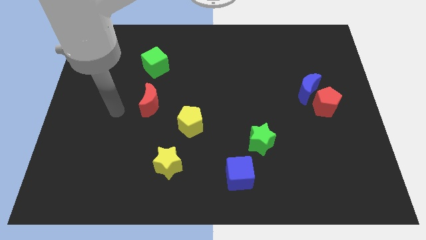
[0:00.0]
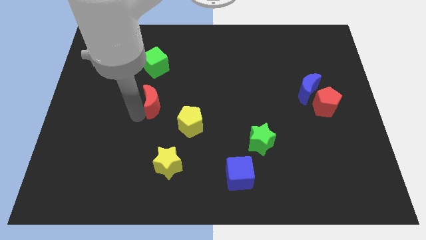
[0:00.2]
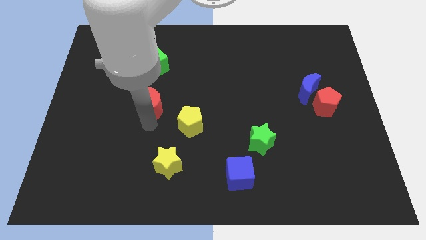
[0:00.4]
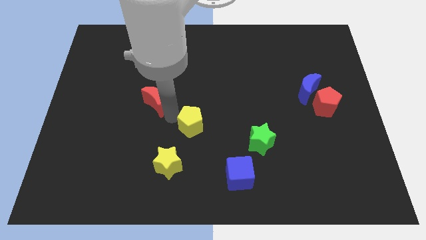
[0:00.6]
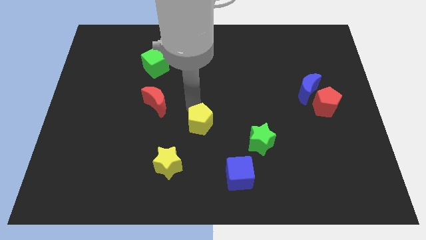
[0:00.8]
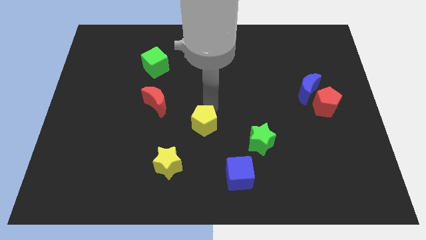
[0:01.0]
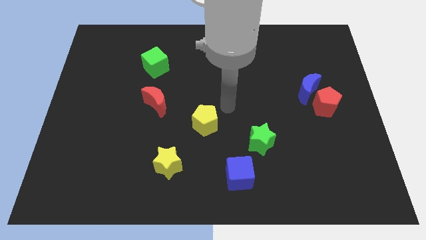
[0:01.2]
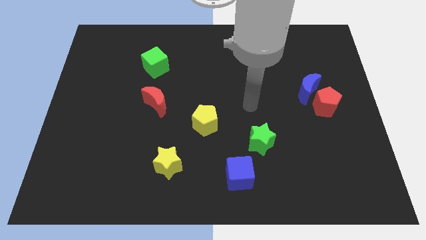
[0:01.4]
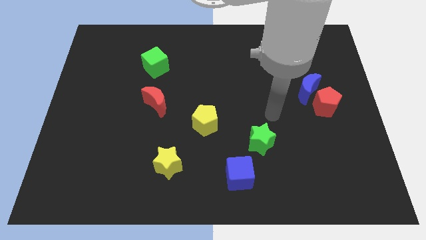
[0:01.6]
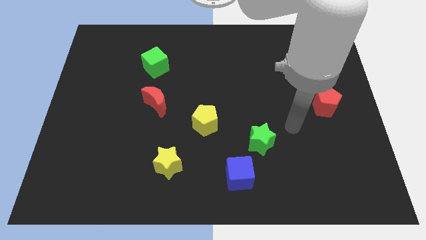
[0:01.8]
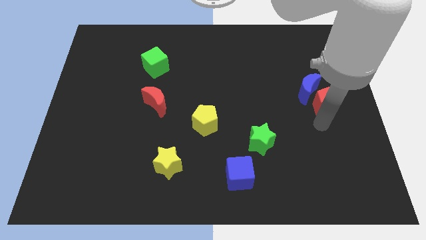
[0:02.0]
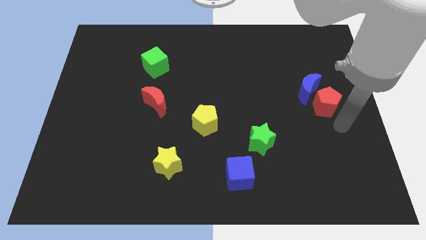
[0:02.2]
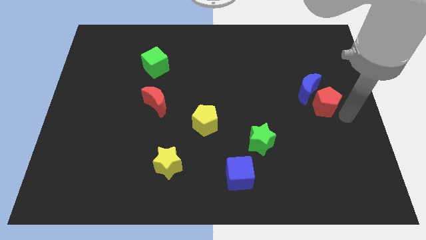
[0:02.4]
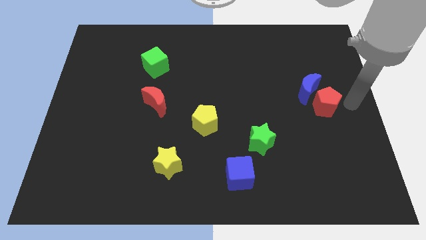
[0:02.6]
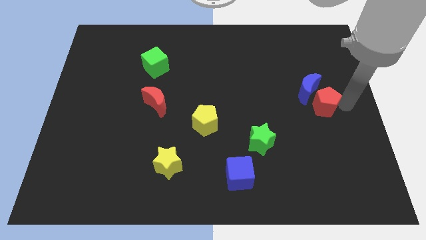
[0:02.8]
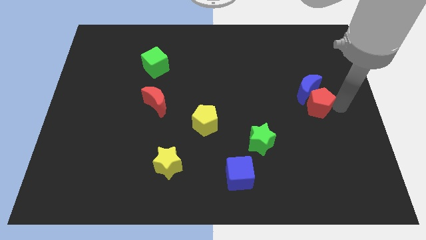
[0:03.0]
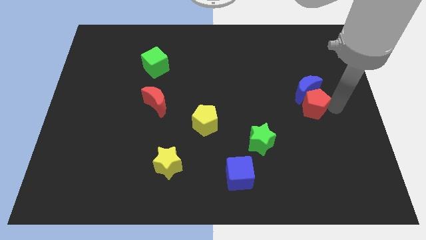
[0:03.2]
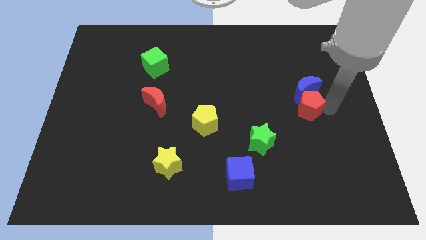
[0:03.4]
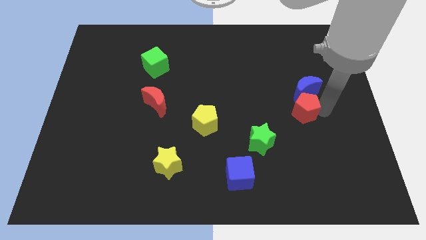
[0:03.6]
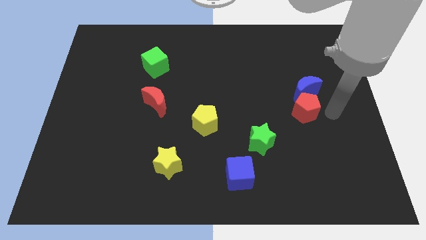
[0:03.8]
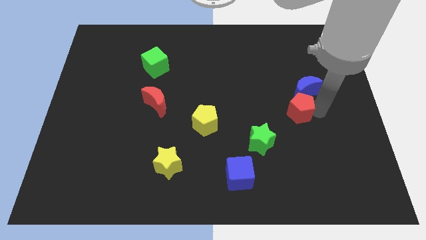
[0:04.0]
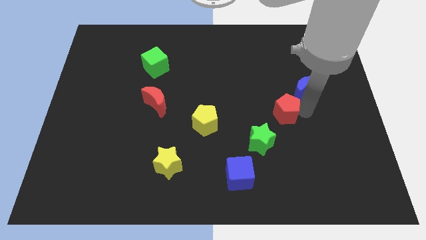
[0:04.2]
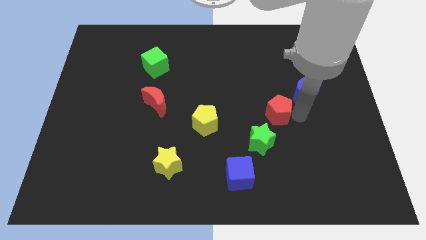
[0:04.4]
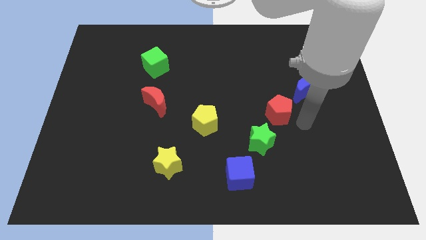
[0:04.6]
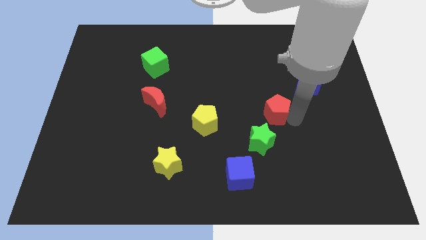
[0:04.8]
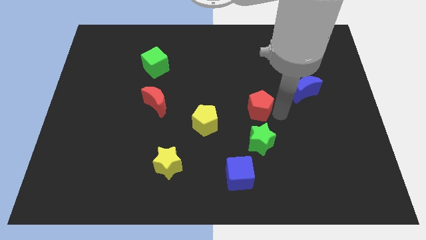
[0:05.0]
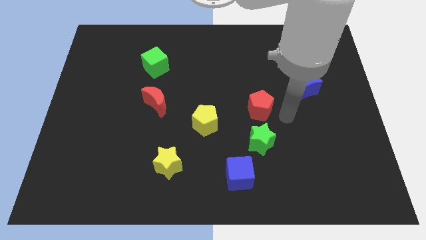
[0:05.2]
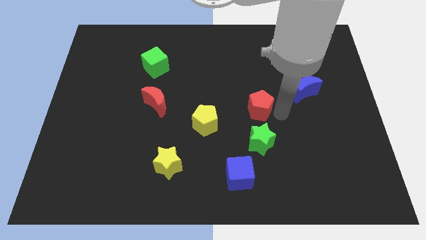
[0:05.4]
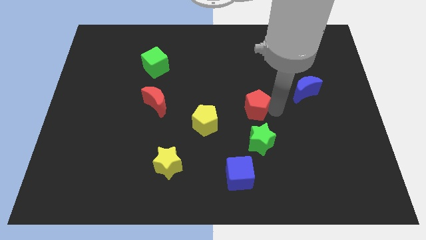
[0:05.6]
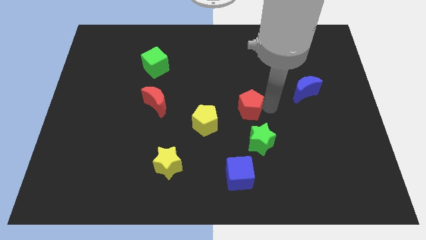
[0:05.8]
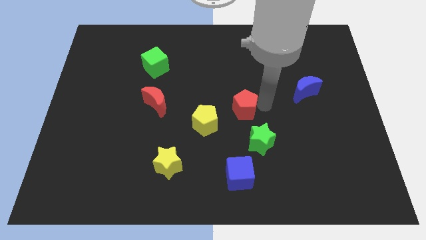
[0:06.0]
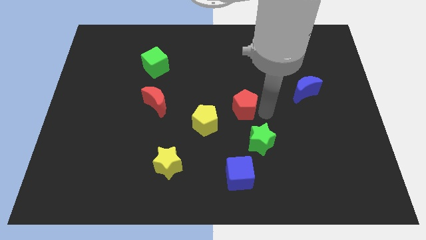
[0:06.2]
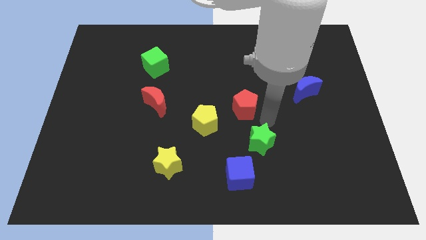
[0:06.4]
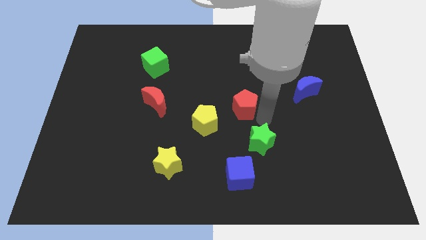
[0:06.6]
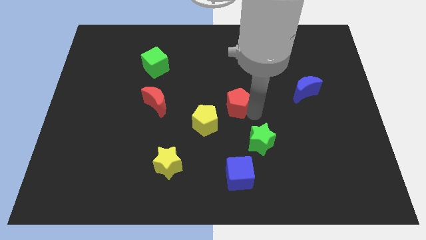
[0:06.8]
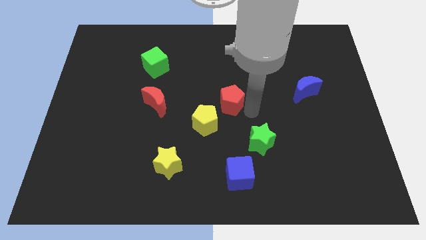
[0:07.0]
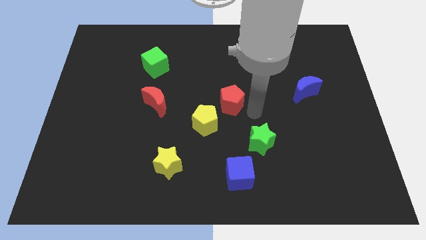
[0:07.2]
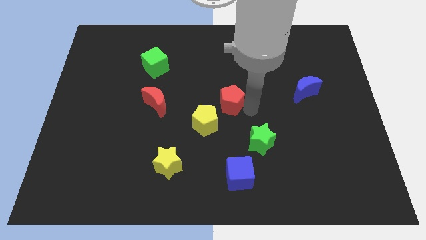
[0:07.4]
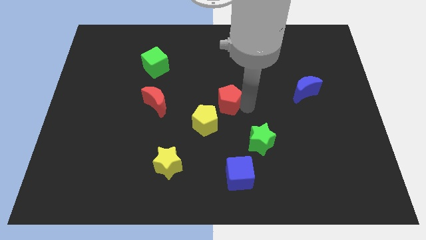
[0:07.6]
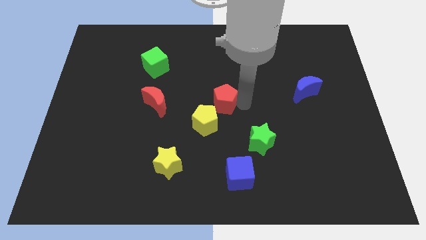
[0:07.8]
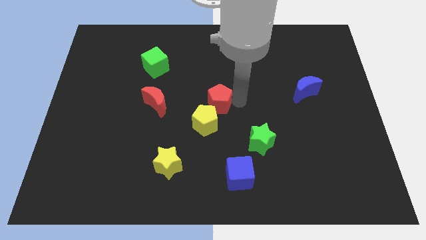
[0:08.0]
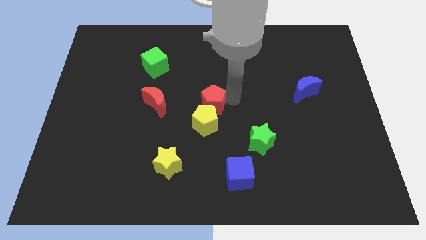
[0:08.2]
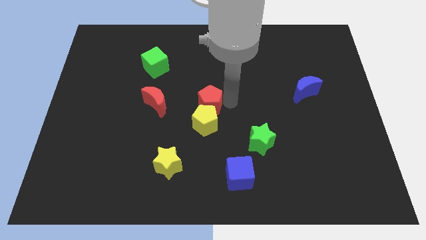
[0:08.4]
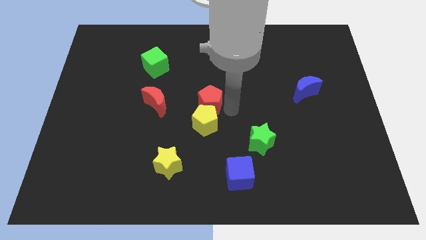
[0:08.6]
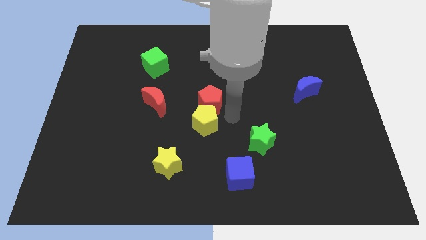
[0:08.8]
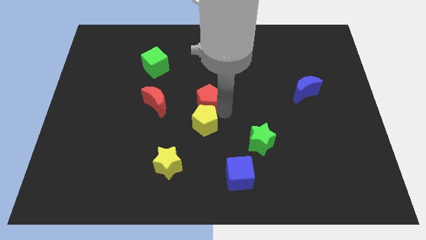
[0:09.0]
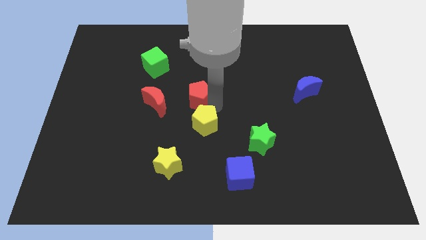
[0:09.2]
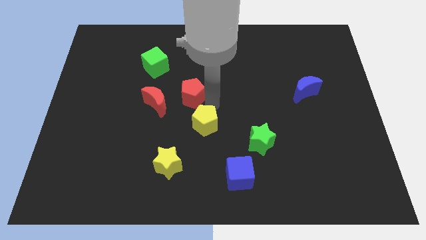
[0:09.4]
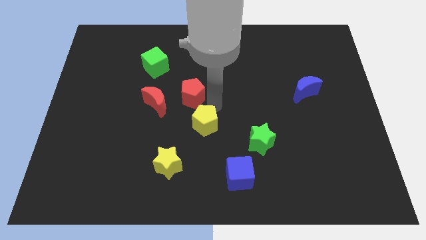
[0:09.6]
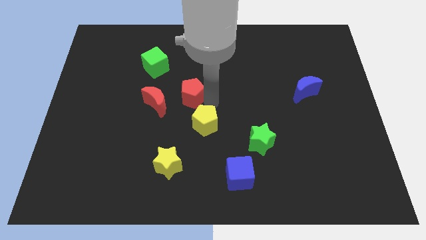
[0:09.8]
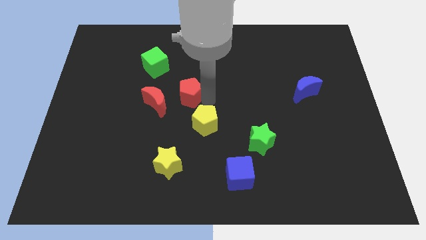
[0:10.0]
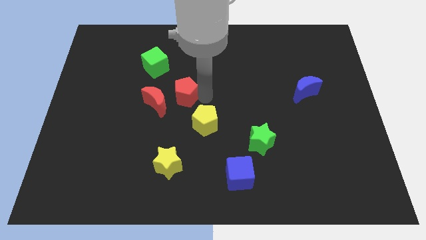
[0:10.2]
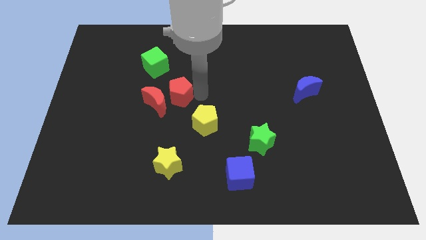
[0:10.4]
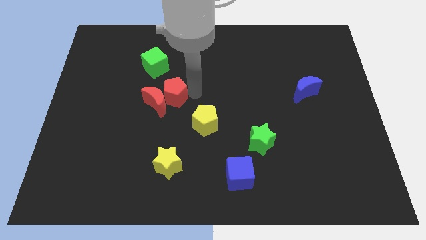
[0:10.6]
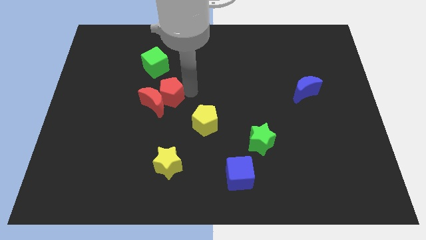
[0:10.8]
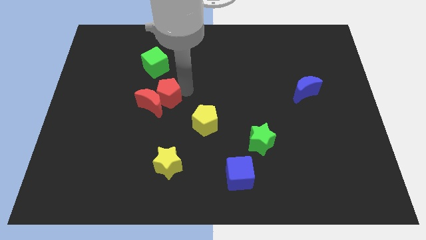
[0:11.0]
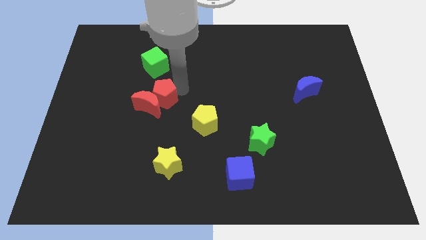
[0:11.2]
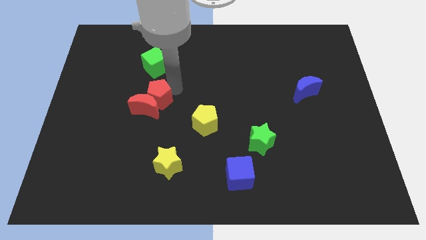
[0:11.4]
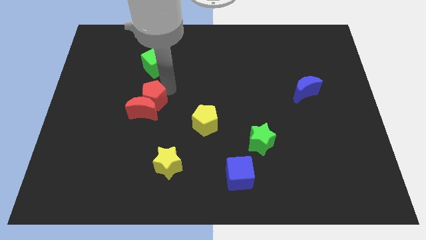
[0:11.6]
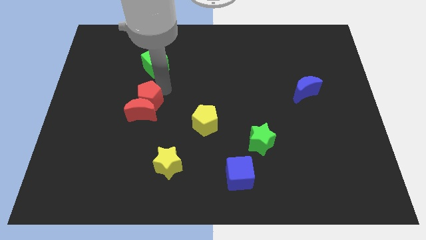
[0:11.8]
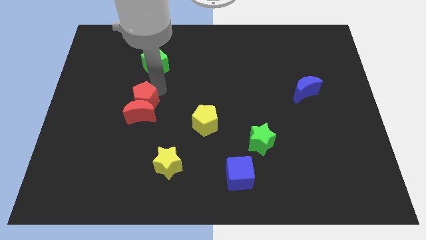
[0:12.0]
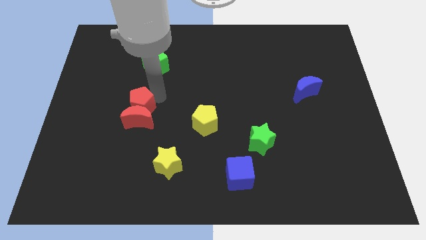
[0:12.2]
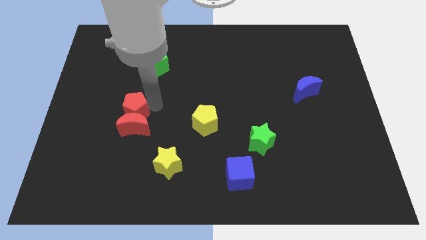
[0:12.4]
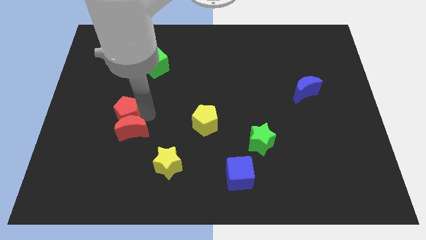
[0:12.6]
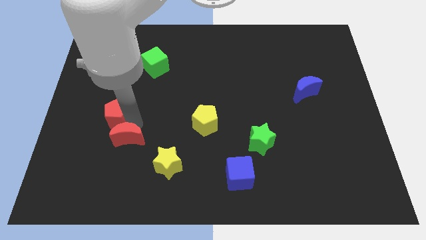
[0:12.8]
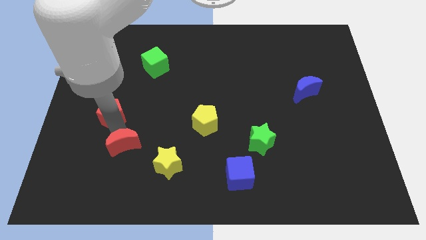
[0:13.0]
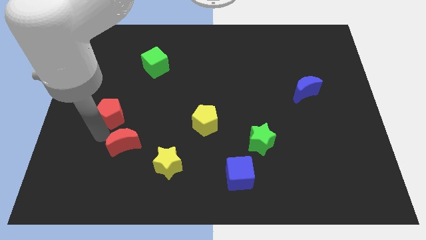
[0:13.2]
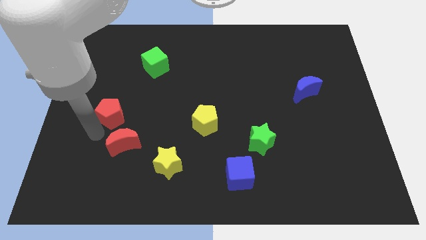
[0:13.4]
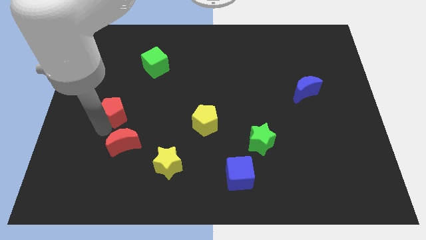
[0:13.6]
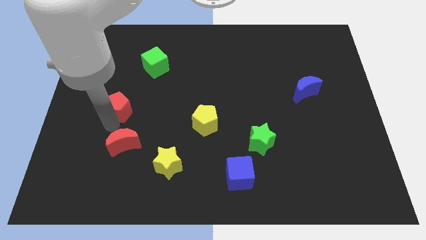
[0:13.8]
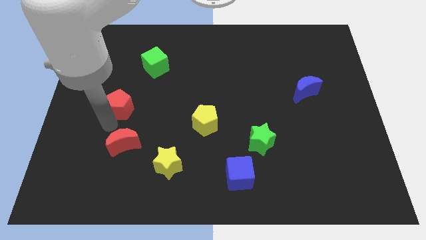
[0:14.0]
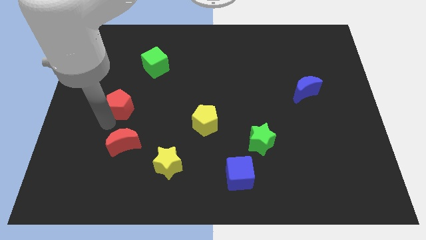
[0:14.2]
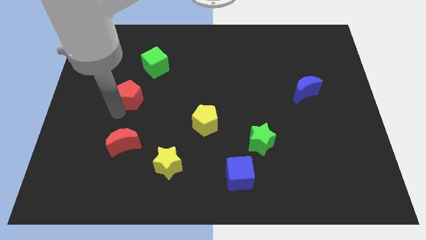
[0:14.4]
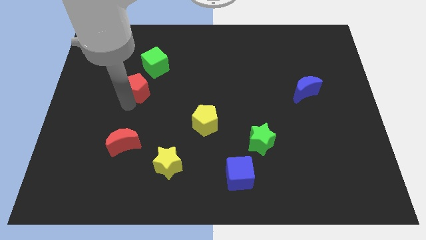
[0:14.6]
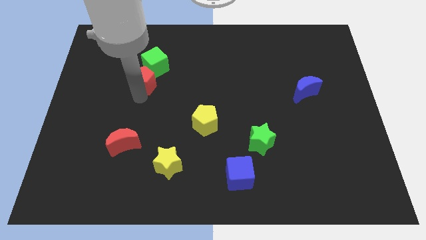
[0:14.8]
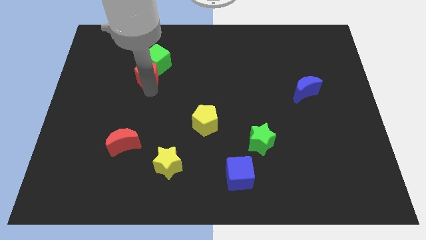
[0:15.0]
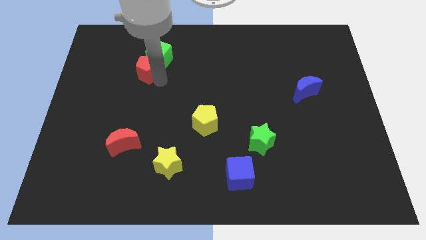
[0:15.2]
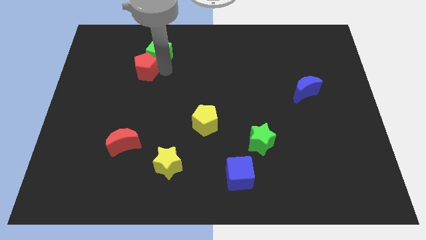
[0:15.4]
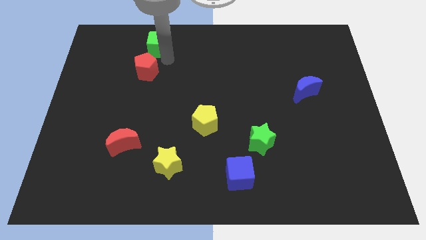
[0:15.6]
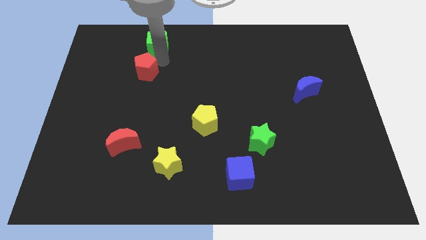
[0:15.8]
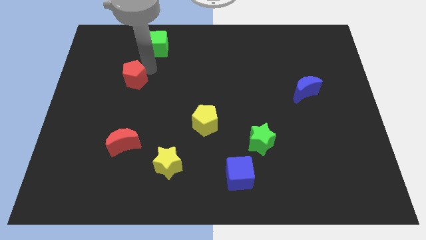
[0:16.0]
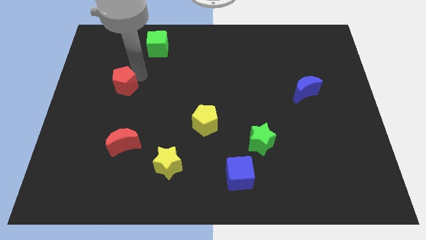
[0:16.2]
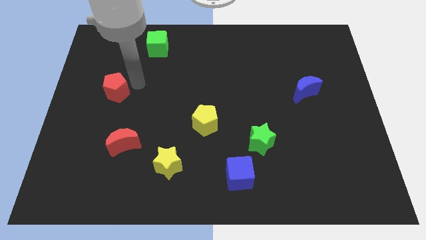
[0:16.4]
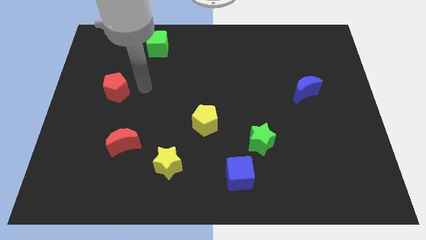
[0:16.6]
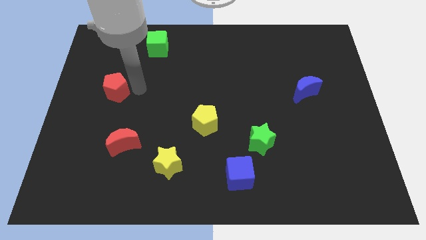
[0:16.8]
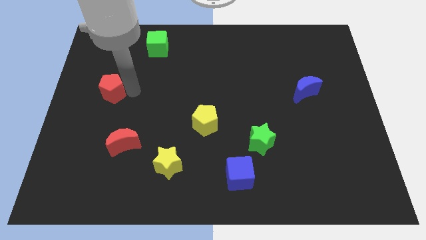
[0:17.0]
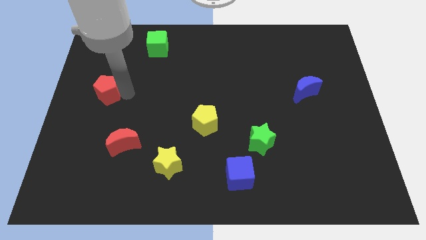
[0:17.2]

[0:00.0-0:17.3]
push the red pentagon to the center left
